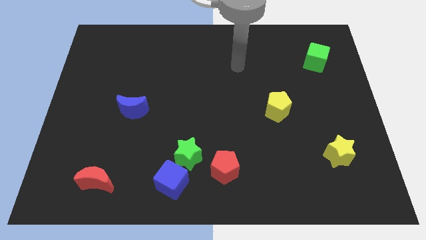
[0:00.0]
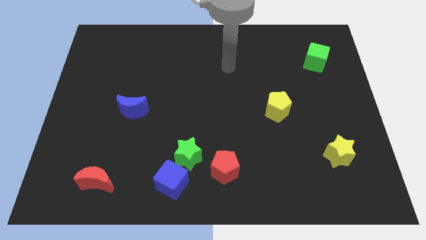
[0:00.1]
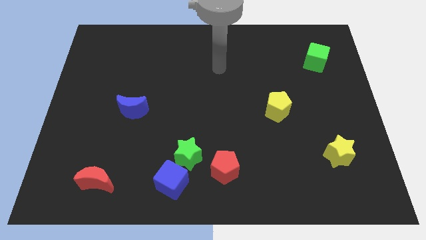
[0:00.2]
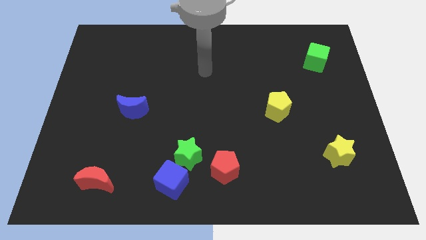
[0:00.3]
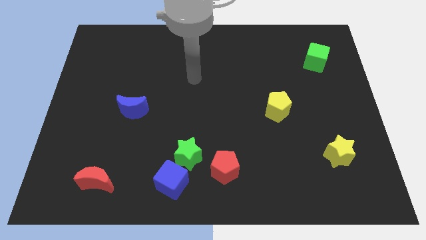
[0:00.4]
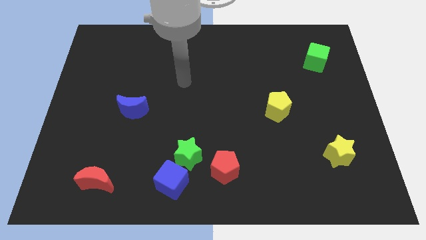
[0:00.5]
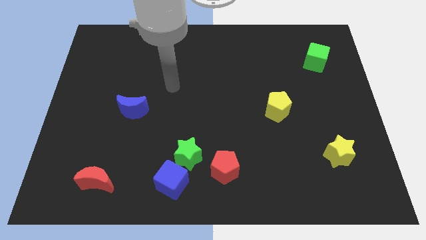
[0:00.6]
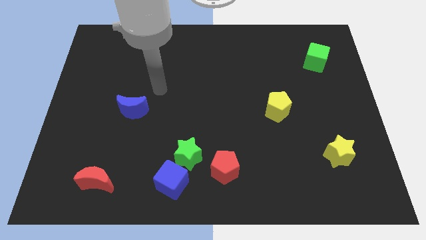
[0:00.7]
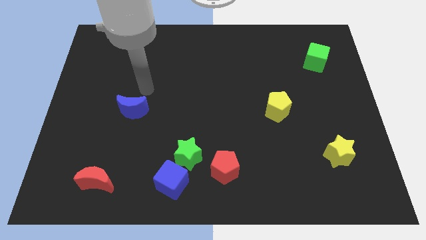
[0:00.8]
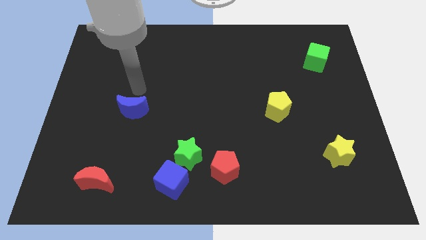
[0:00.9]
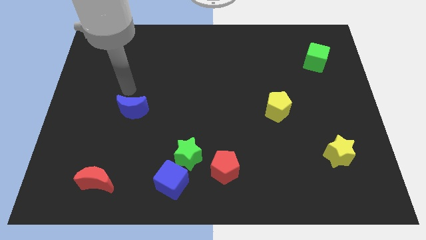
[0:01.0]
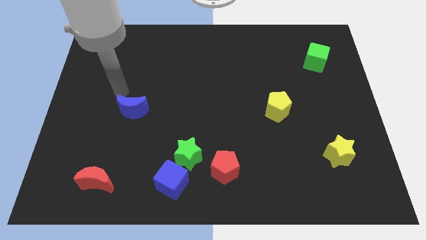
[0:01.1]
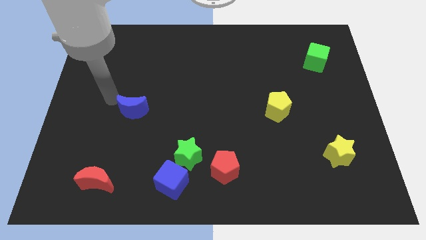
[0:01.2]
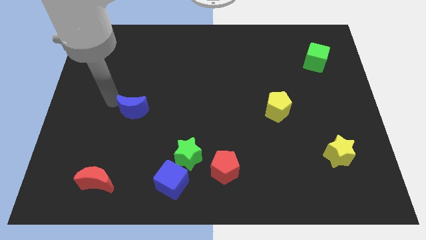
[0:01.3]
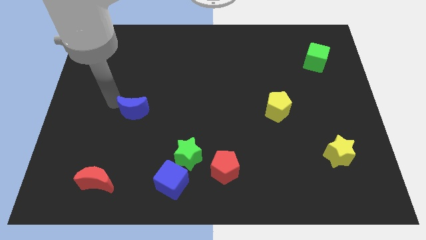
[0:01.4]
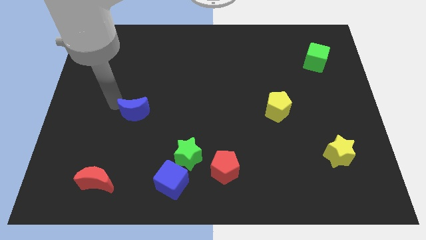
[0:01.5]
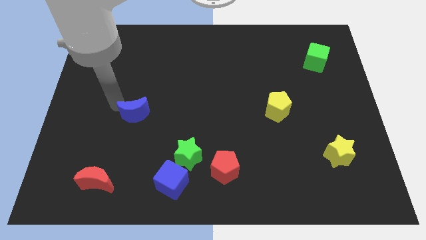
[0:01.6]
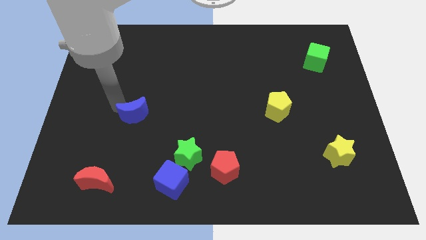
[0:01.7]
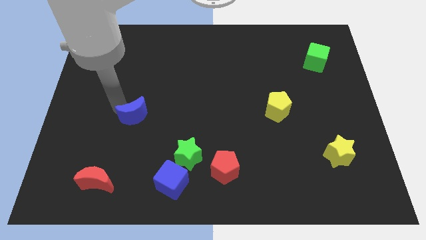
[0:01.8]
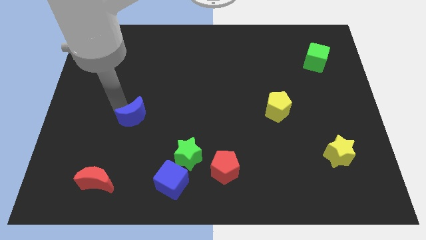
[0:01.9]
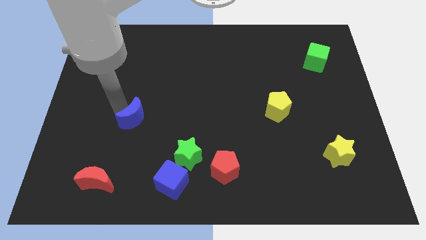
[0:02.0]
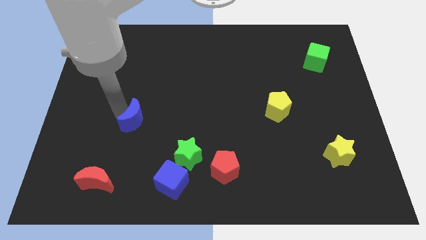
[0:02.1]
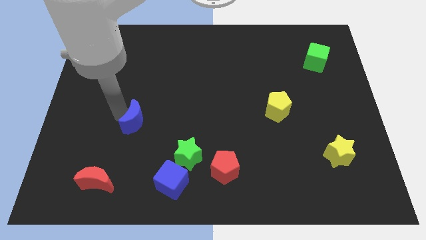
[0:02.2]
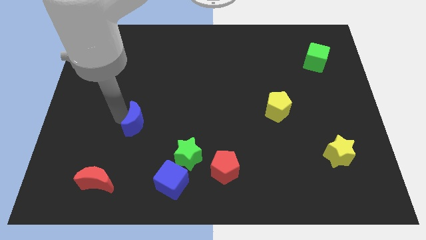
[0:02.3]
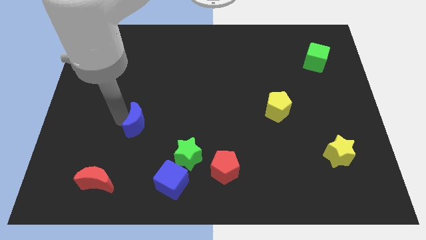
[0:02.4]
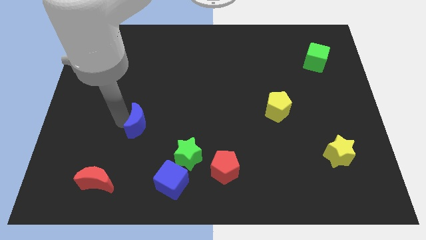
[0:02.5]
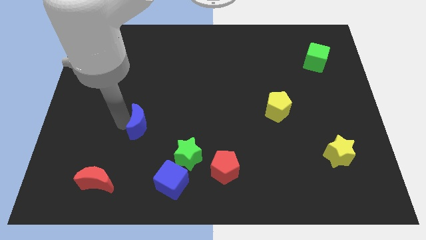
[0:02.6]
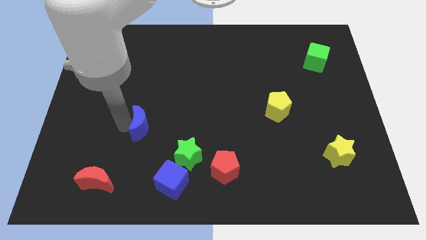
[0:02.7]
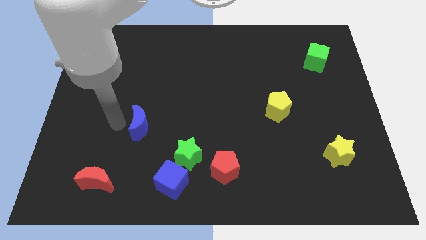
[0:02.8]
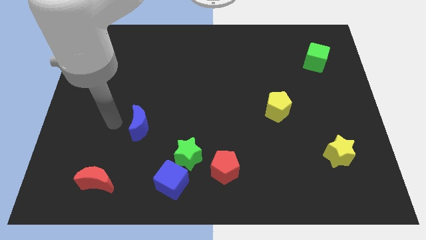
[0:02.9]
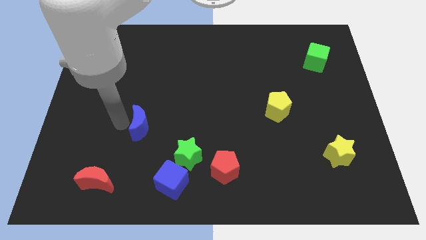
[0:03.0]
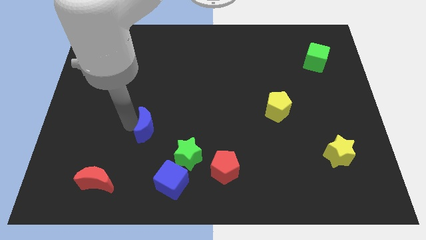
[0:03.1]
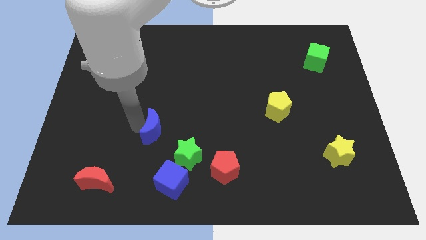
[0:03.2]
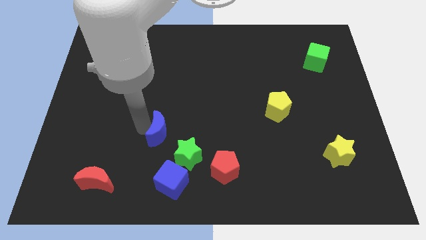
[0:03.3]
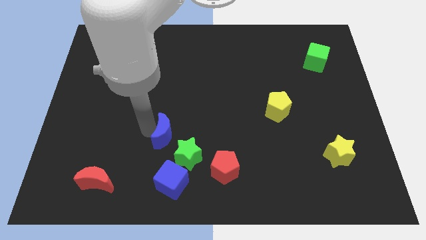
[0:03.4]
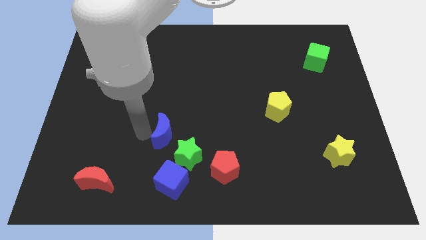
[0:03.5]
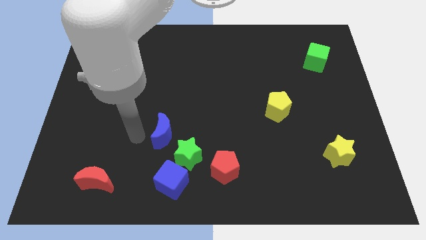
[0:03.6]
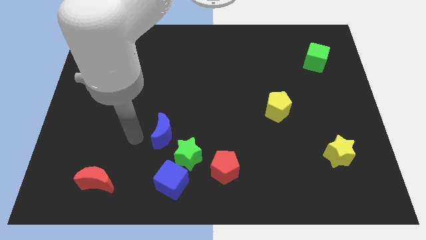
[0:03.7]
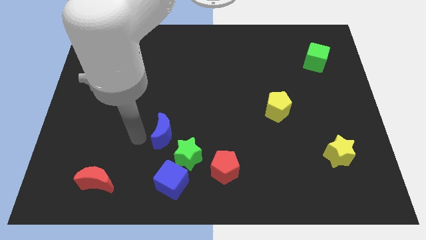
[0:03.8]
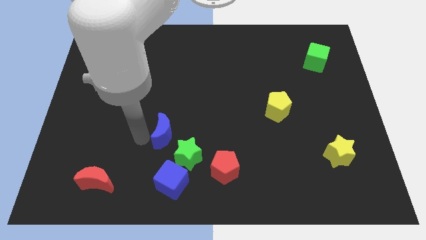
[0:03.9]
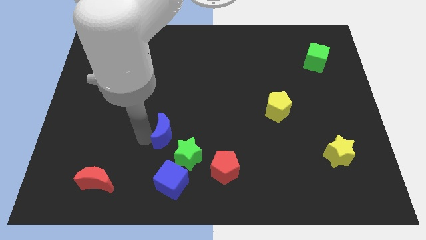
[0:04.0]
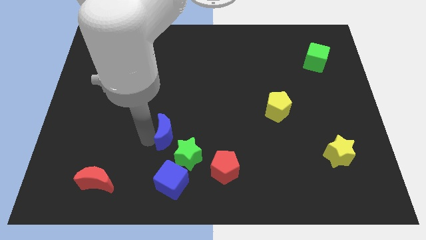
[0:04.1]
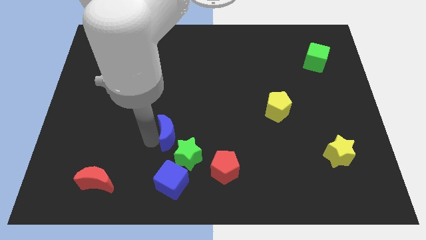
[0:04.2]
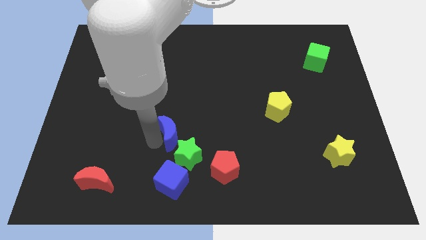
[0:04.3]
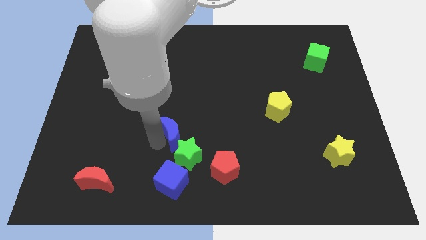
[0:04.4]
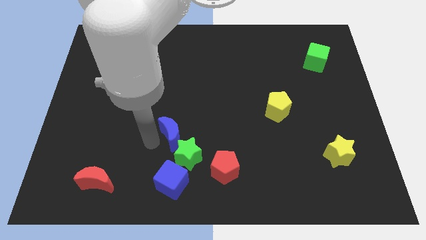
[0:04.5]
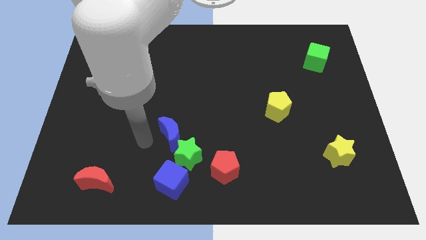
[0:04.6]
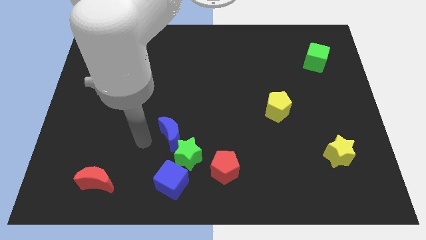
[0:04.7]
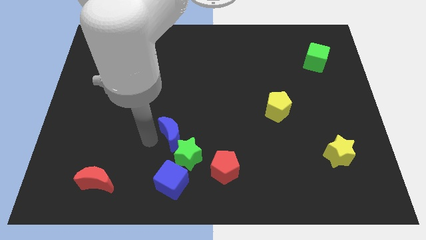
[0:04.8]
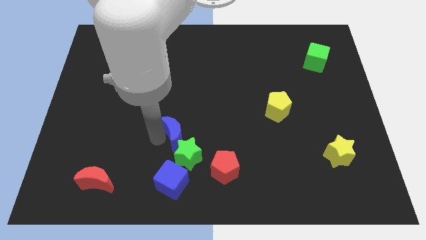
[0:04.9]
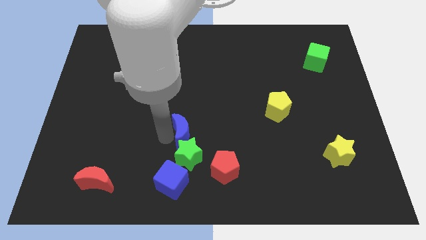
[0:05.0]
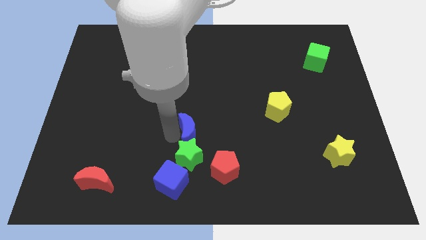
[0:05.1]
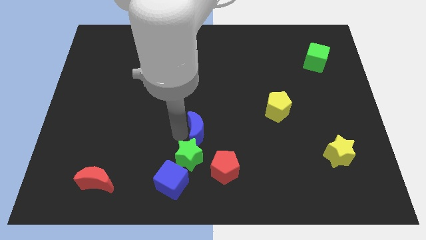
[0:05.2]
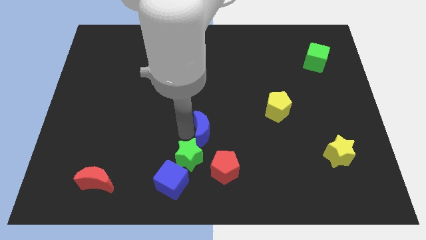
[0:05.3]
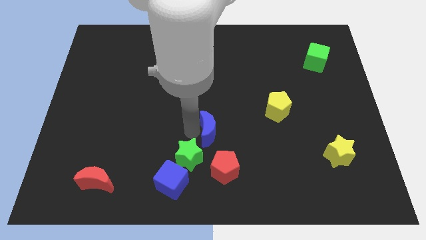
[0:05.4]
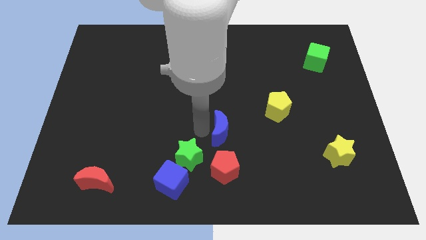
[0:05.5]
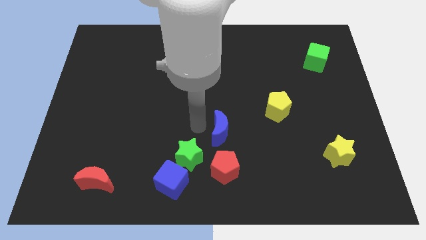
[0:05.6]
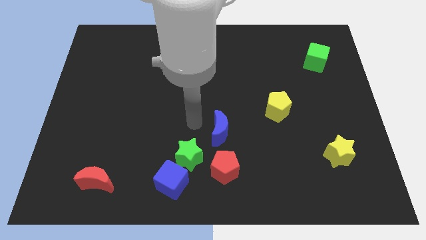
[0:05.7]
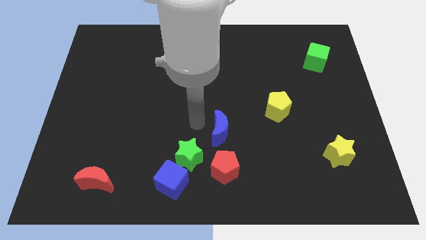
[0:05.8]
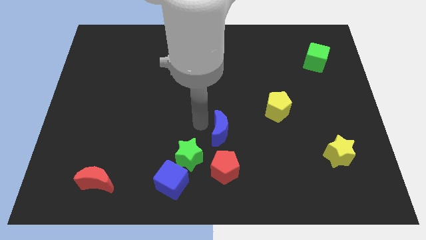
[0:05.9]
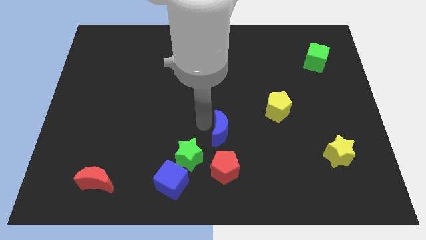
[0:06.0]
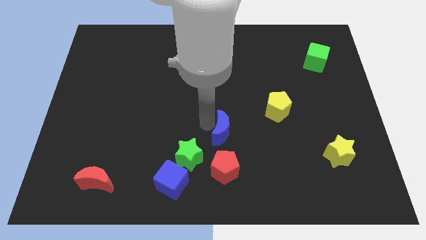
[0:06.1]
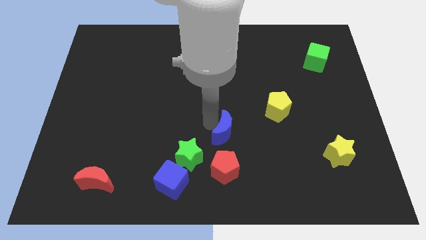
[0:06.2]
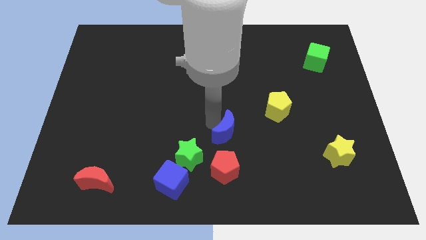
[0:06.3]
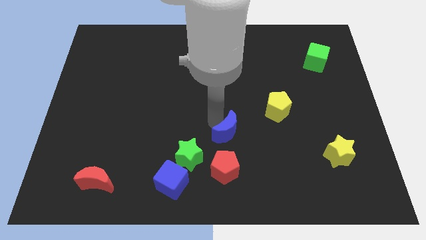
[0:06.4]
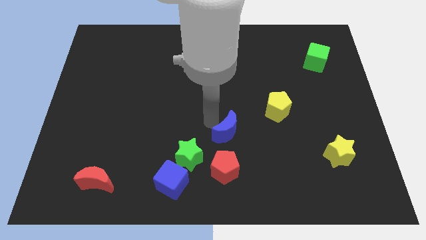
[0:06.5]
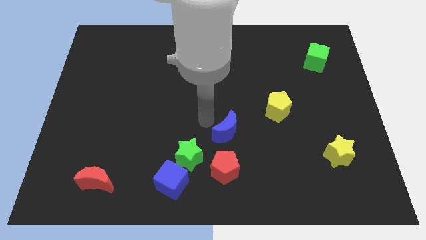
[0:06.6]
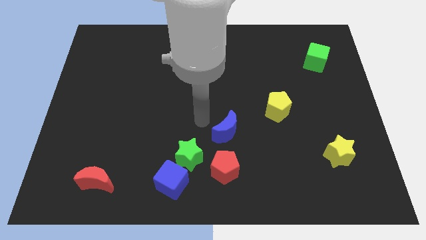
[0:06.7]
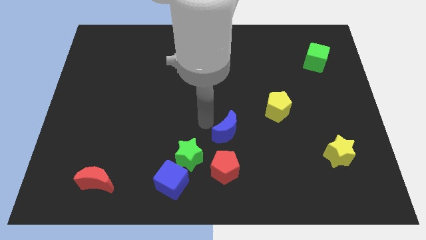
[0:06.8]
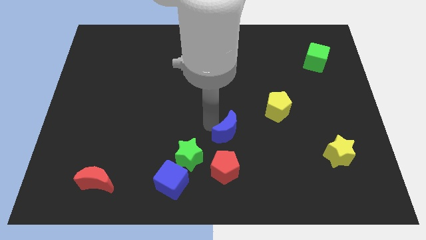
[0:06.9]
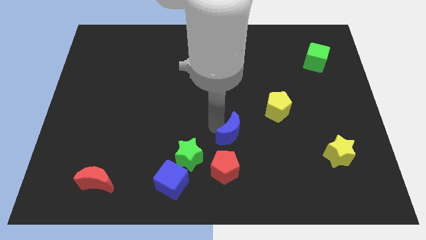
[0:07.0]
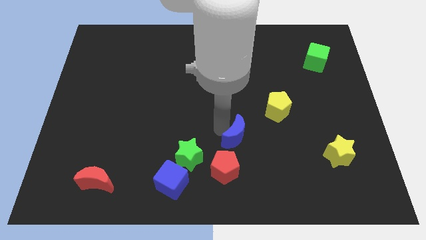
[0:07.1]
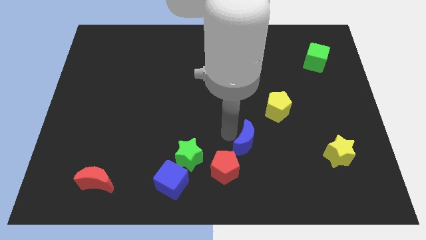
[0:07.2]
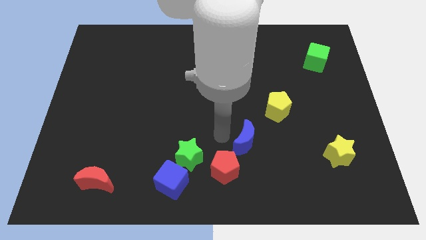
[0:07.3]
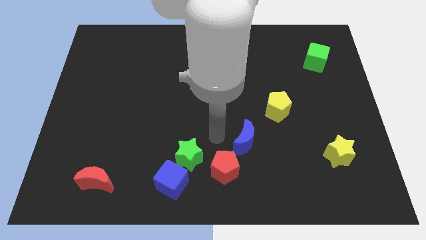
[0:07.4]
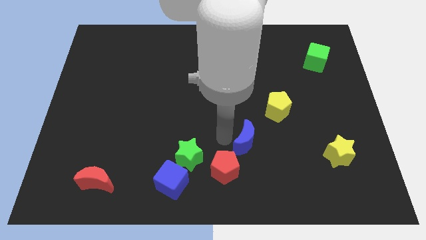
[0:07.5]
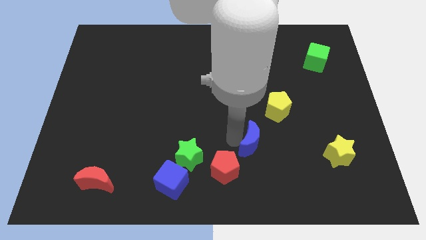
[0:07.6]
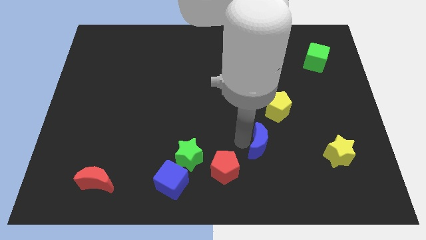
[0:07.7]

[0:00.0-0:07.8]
slide the blue moon to the bottom side of the yellow pentagon
